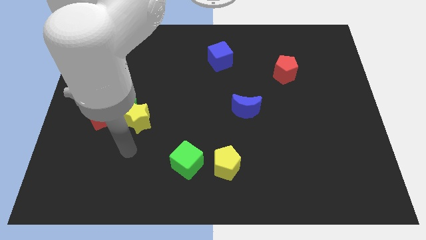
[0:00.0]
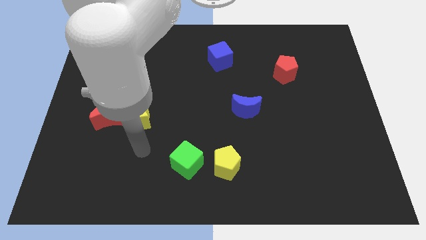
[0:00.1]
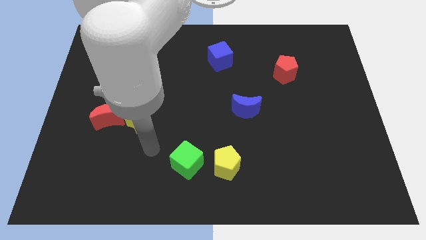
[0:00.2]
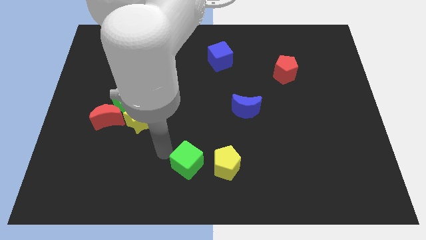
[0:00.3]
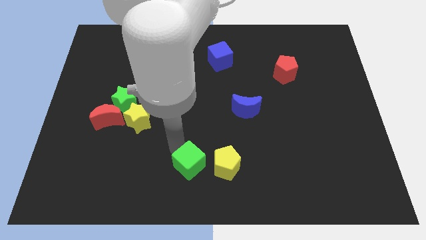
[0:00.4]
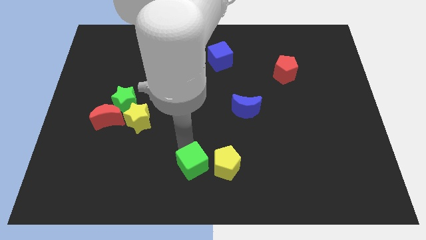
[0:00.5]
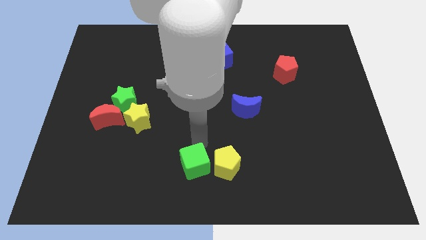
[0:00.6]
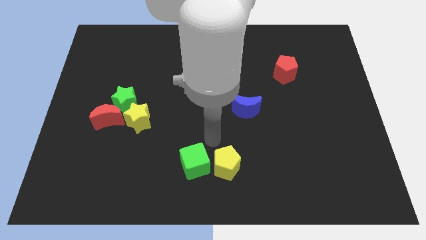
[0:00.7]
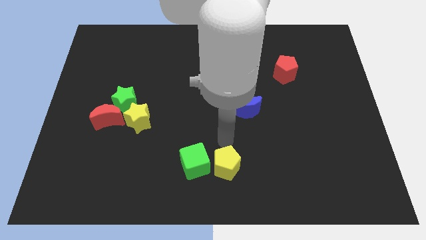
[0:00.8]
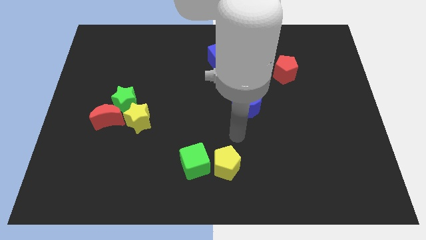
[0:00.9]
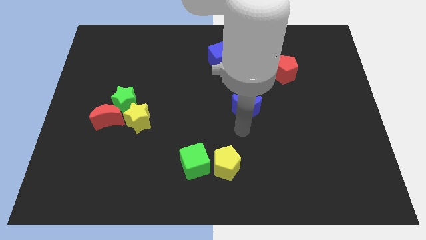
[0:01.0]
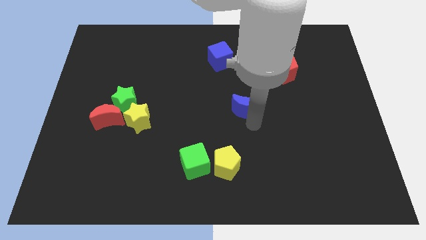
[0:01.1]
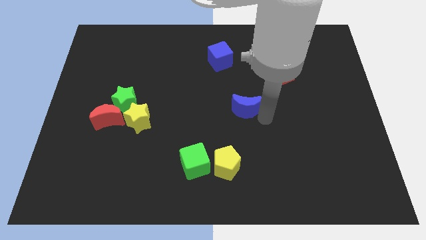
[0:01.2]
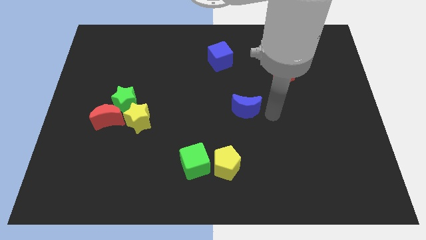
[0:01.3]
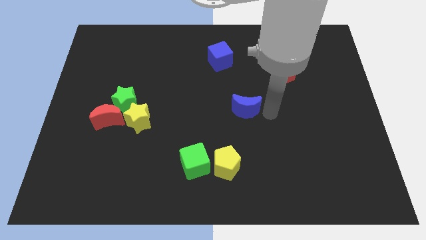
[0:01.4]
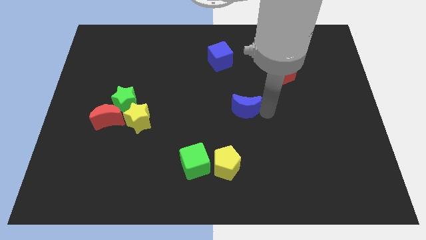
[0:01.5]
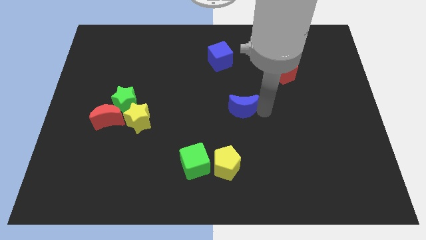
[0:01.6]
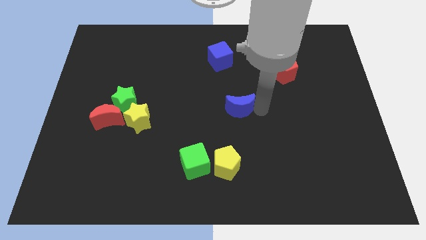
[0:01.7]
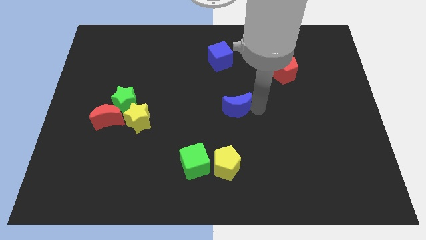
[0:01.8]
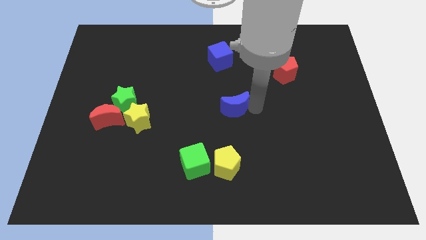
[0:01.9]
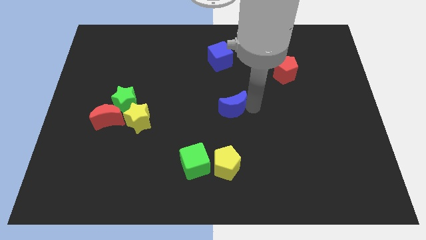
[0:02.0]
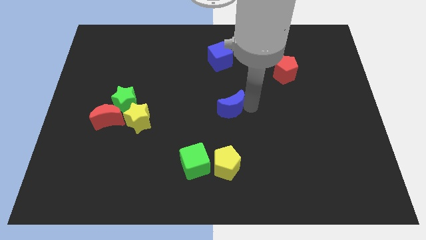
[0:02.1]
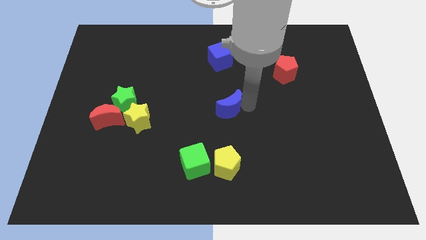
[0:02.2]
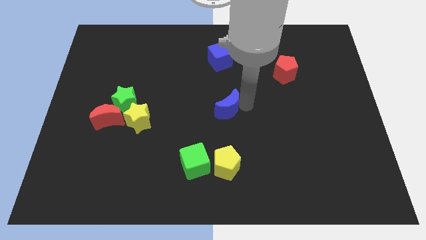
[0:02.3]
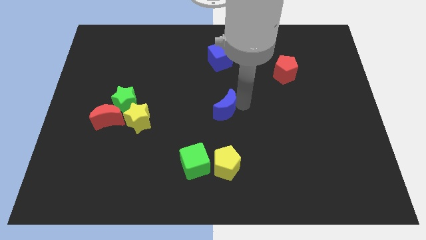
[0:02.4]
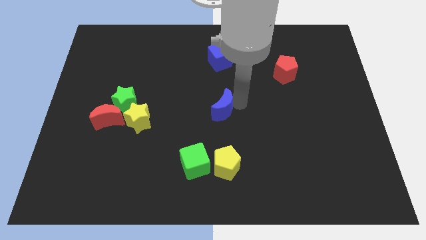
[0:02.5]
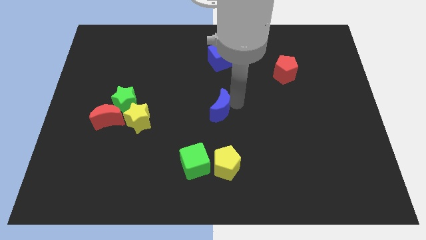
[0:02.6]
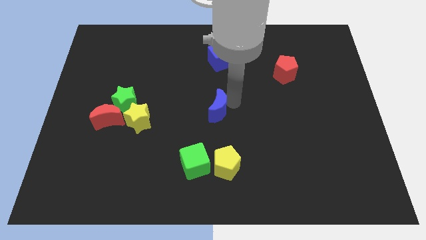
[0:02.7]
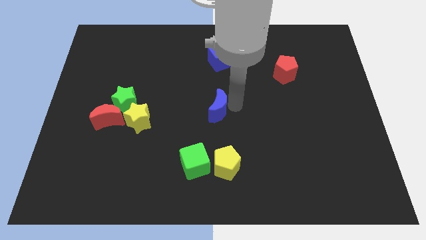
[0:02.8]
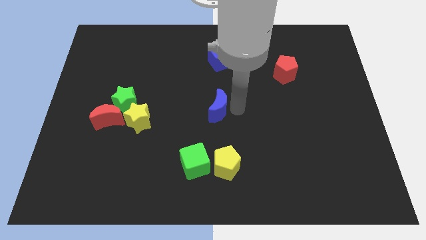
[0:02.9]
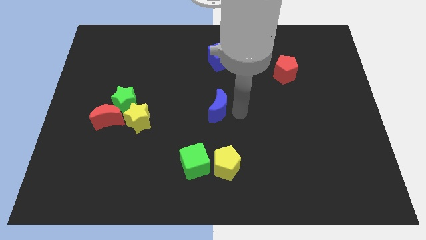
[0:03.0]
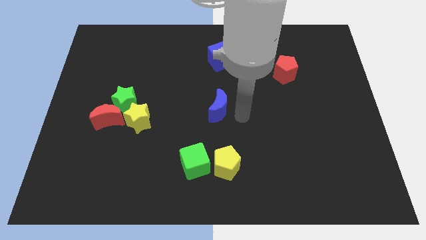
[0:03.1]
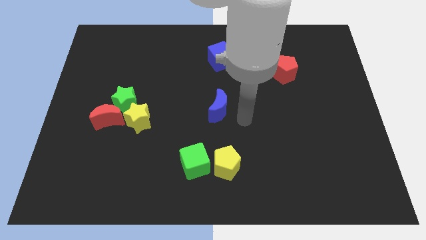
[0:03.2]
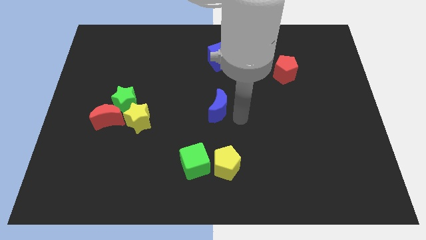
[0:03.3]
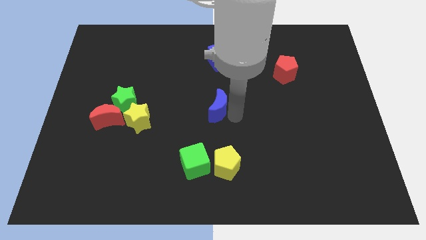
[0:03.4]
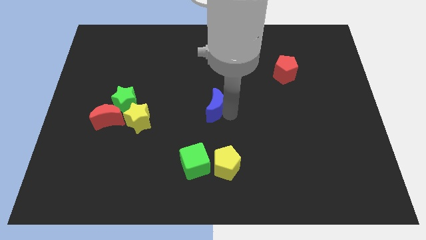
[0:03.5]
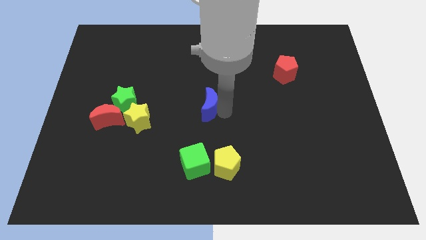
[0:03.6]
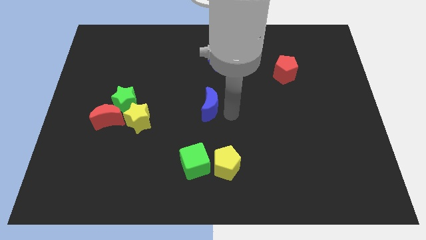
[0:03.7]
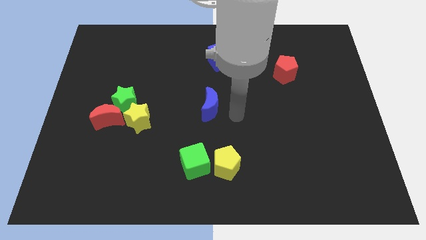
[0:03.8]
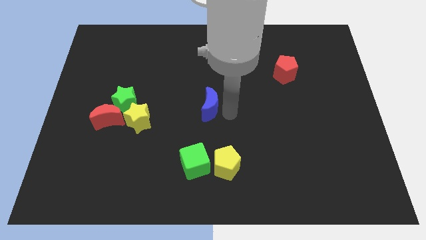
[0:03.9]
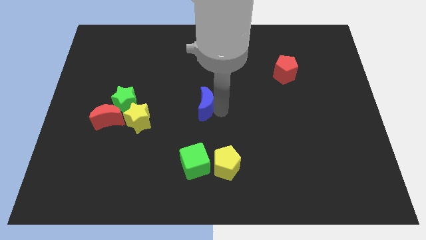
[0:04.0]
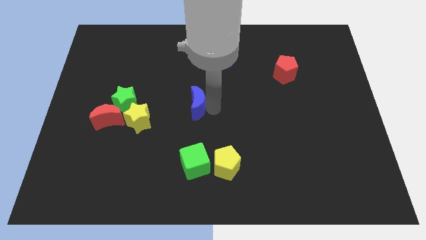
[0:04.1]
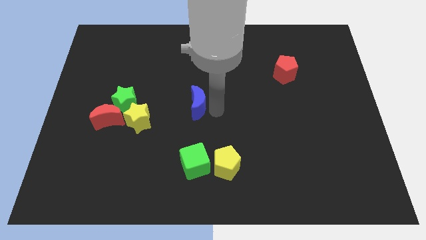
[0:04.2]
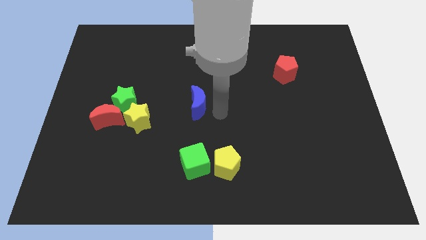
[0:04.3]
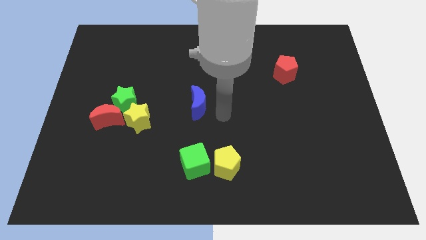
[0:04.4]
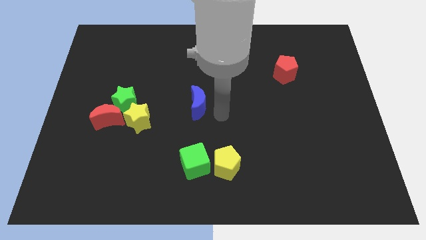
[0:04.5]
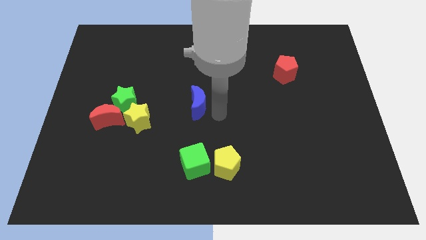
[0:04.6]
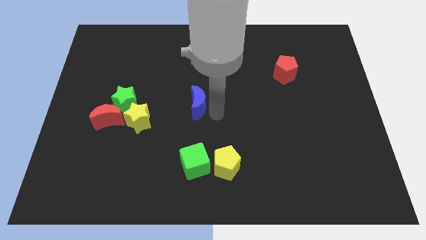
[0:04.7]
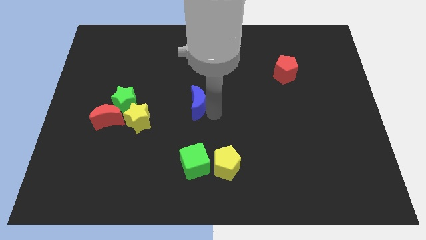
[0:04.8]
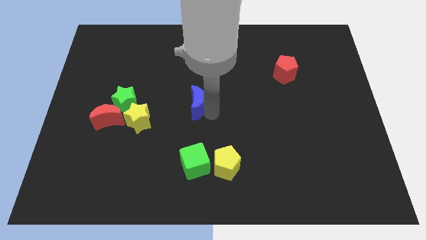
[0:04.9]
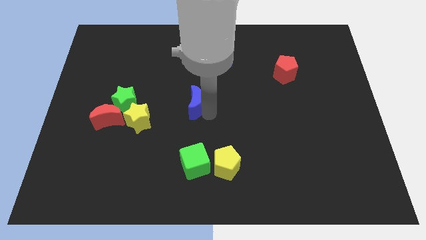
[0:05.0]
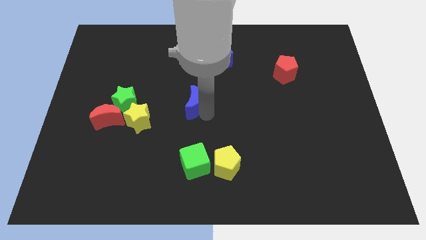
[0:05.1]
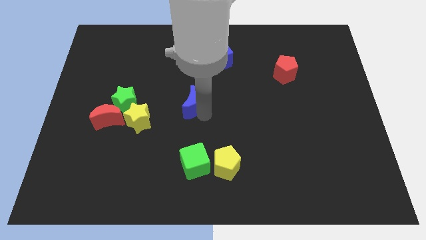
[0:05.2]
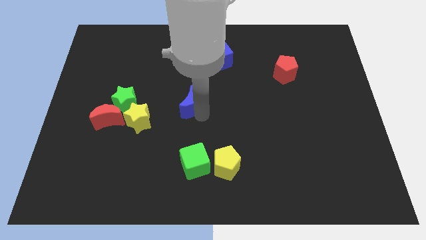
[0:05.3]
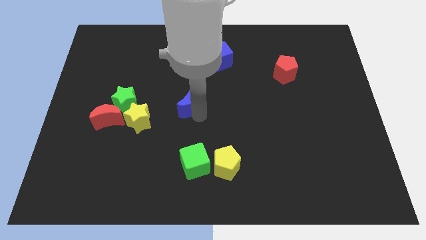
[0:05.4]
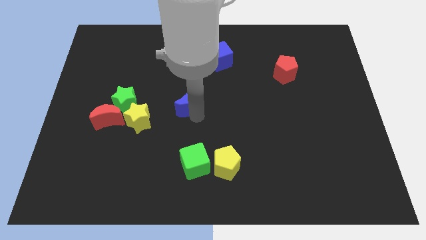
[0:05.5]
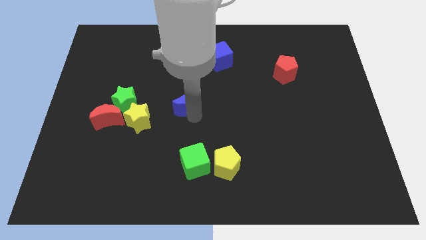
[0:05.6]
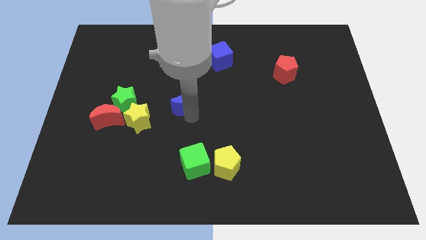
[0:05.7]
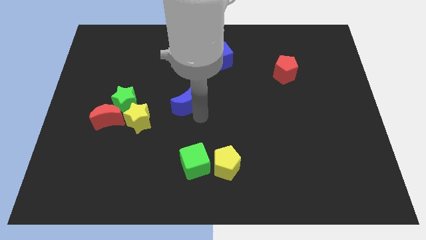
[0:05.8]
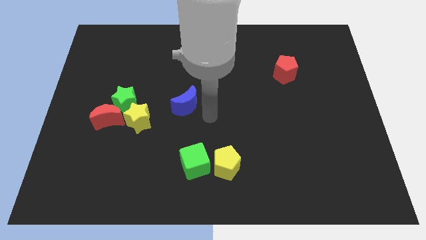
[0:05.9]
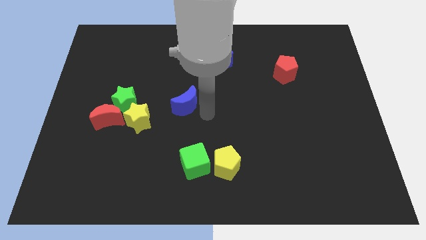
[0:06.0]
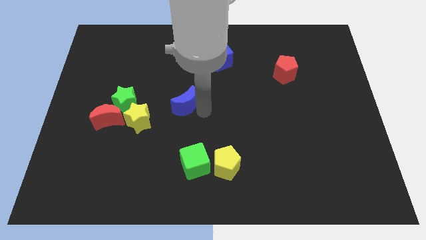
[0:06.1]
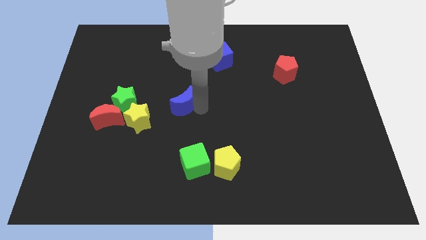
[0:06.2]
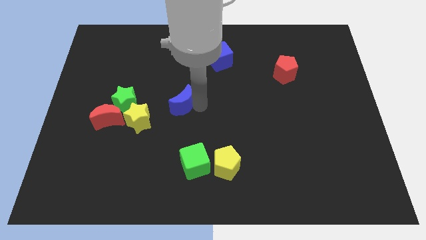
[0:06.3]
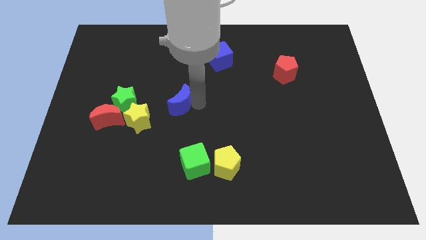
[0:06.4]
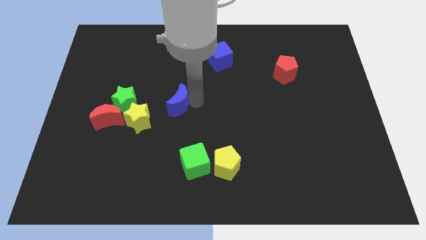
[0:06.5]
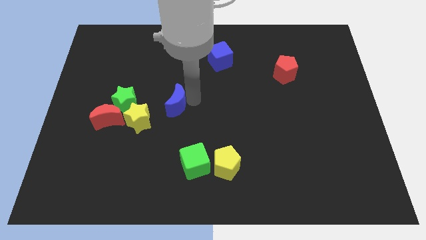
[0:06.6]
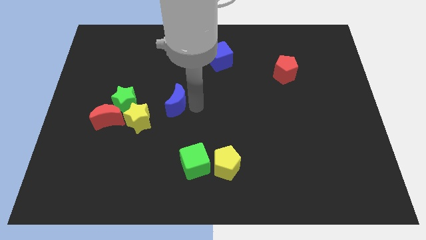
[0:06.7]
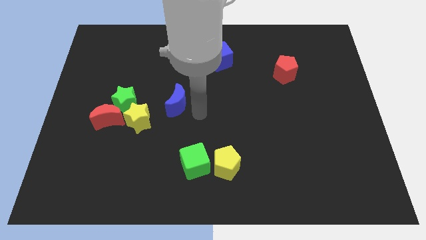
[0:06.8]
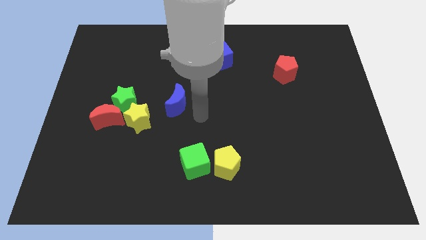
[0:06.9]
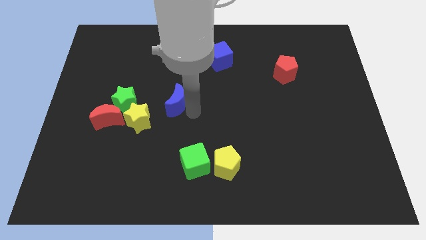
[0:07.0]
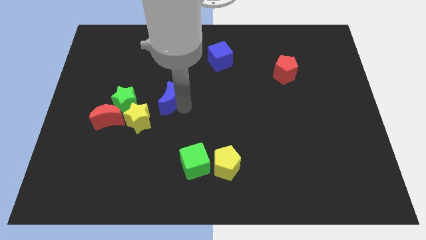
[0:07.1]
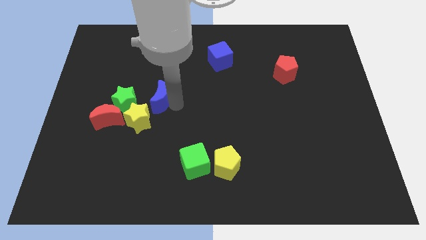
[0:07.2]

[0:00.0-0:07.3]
move the blue moon to the top side of the yellow star
